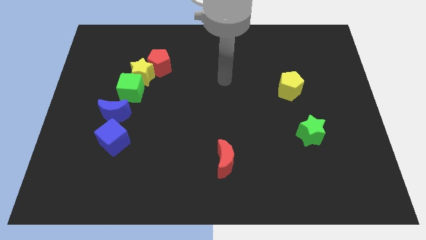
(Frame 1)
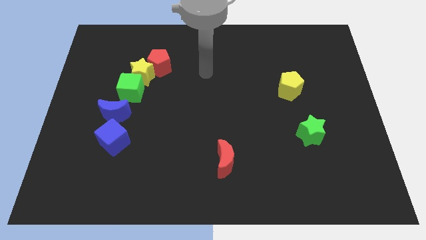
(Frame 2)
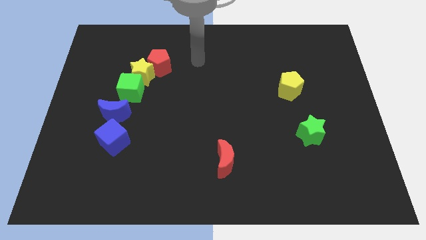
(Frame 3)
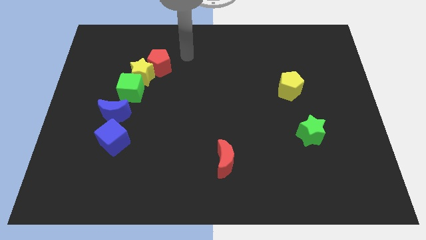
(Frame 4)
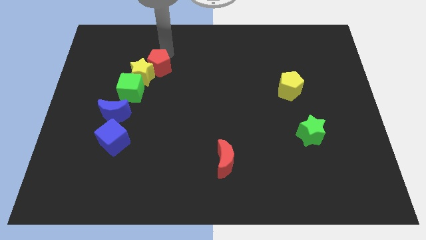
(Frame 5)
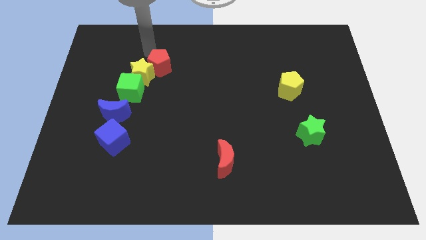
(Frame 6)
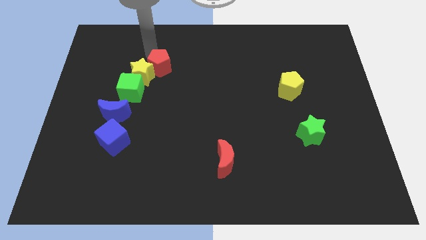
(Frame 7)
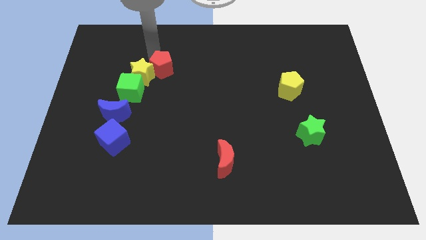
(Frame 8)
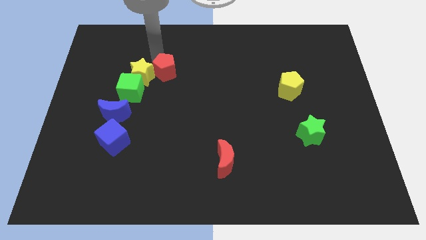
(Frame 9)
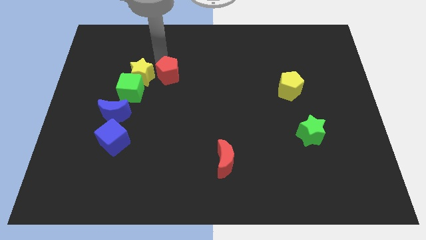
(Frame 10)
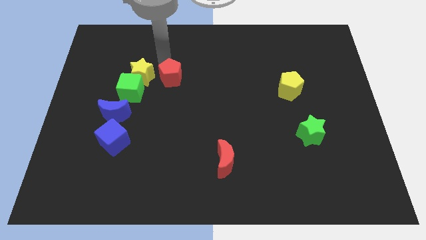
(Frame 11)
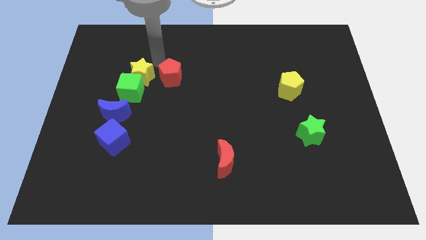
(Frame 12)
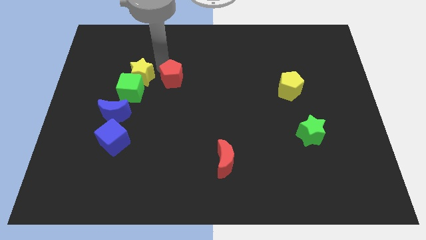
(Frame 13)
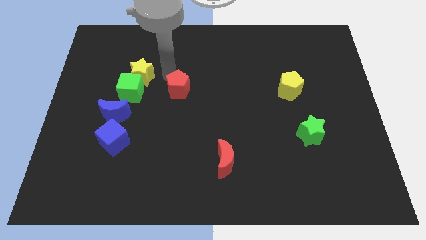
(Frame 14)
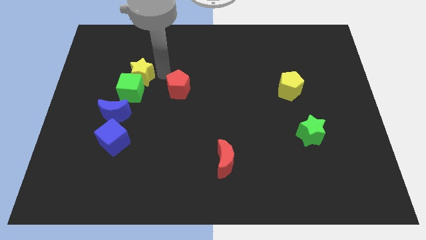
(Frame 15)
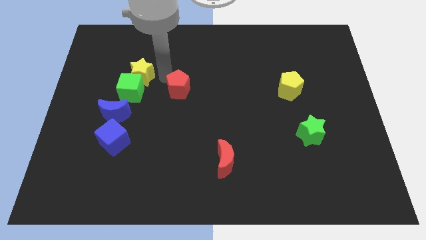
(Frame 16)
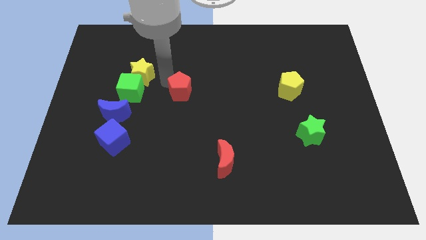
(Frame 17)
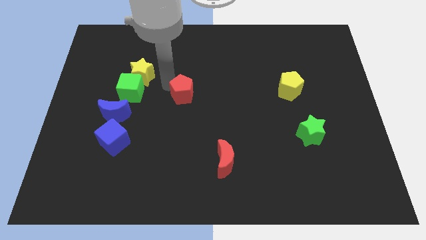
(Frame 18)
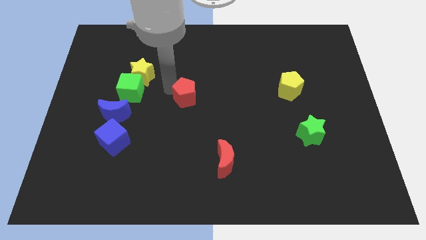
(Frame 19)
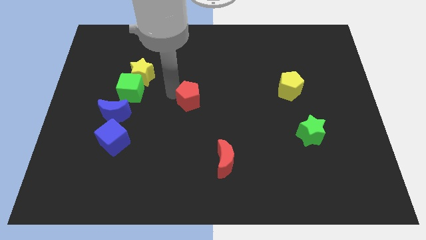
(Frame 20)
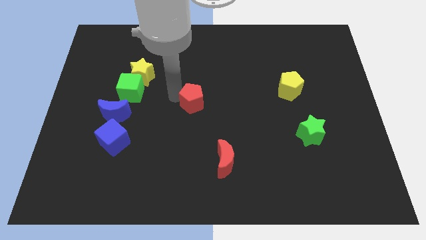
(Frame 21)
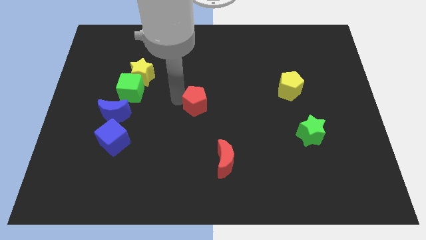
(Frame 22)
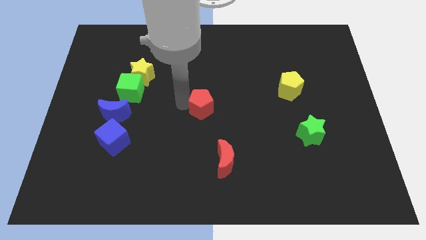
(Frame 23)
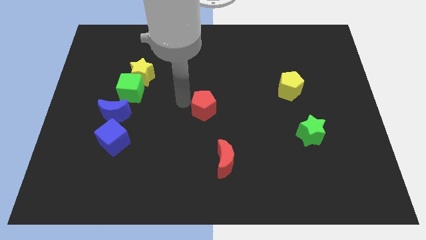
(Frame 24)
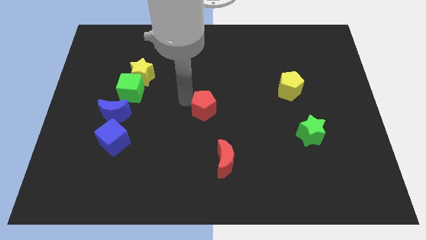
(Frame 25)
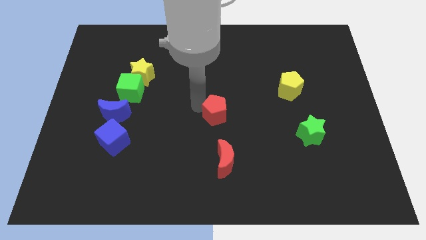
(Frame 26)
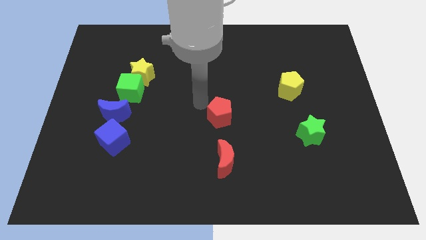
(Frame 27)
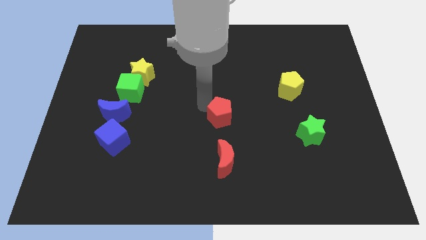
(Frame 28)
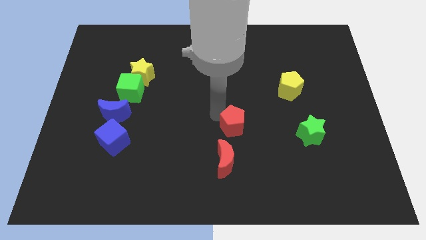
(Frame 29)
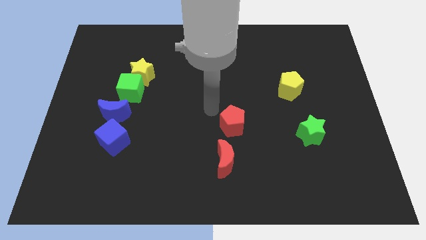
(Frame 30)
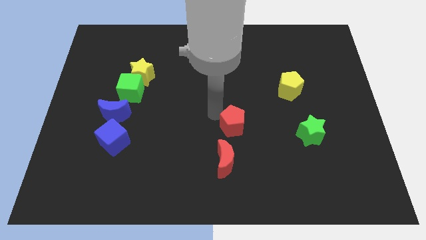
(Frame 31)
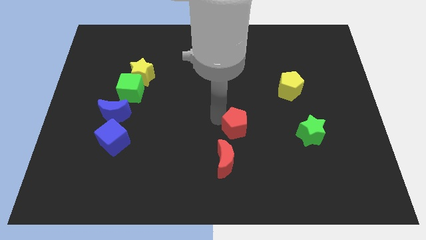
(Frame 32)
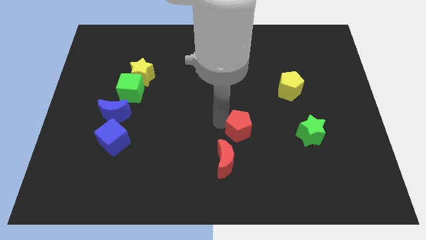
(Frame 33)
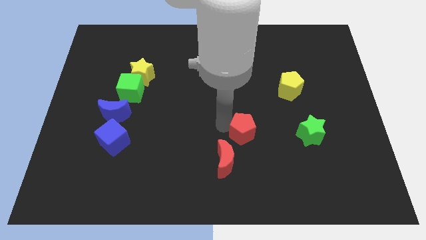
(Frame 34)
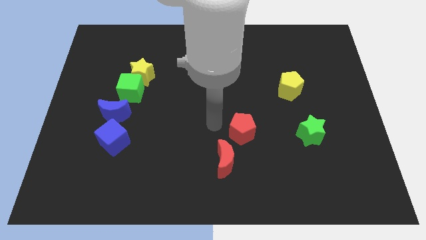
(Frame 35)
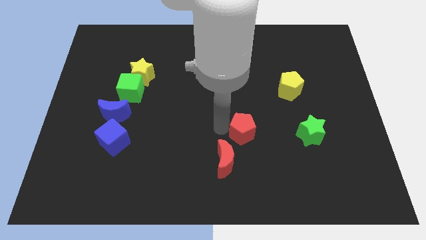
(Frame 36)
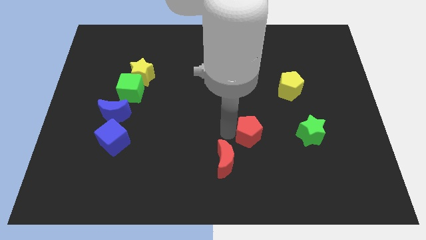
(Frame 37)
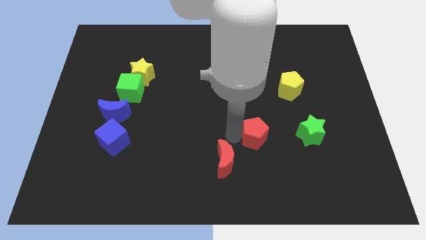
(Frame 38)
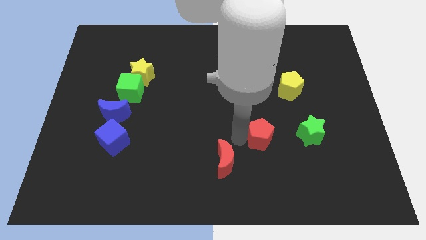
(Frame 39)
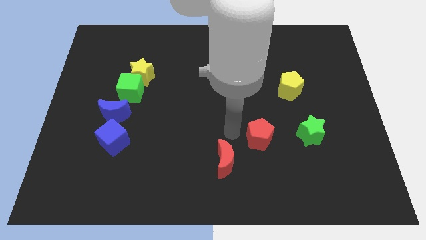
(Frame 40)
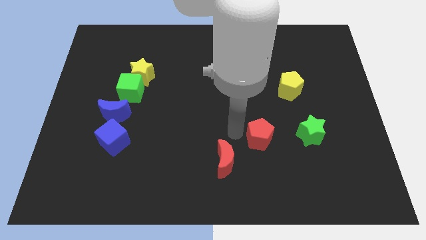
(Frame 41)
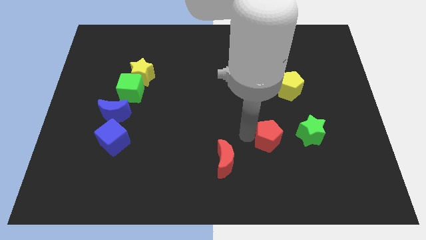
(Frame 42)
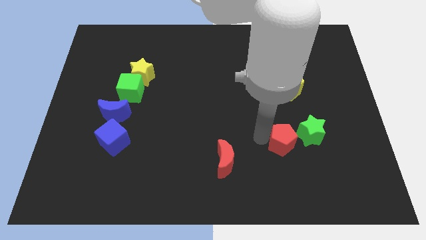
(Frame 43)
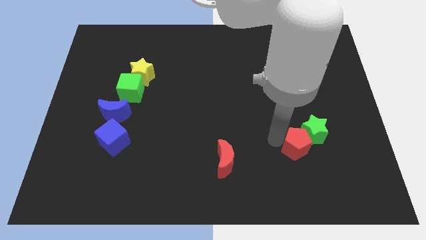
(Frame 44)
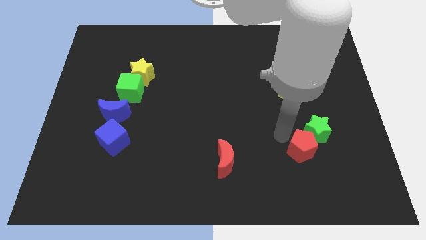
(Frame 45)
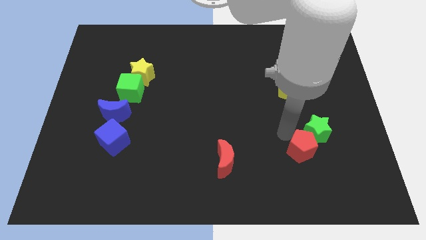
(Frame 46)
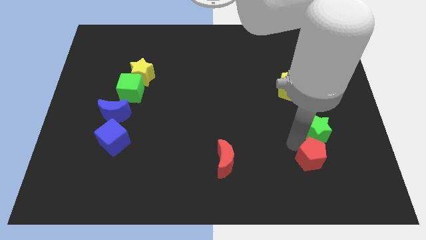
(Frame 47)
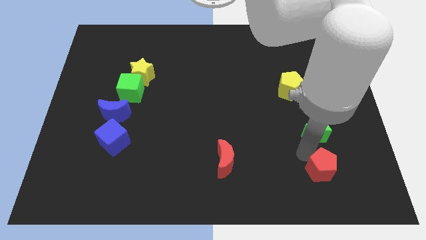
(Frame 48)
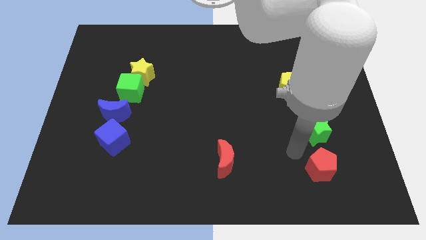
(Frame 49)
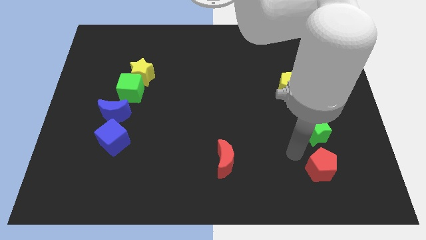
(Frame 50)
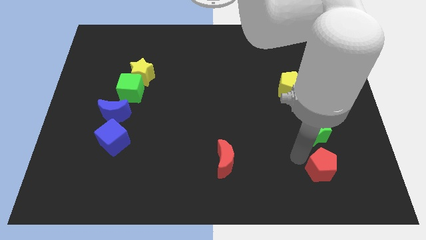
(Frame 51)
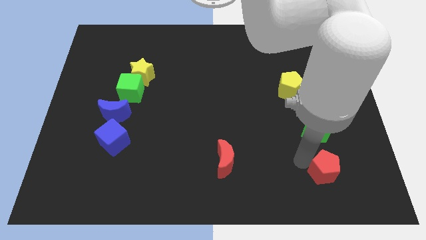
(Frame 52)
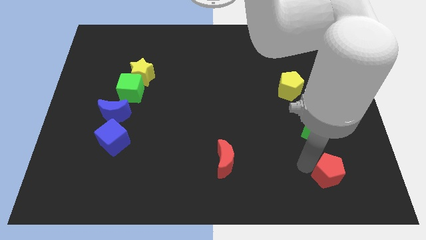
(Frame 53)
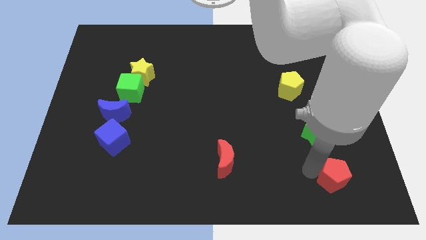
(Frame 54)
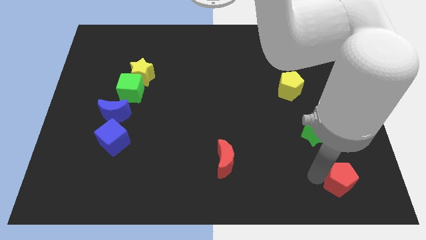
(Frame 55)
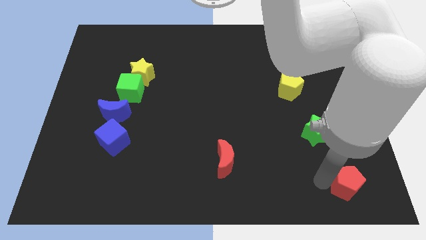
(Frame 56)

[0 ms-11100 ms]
push the red pentagon to the bottom right of the board

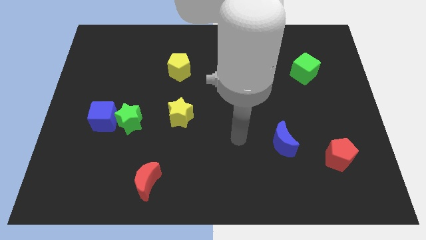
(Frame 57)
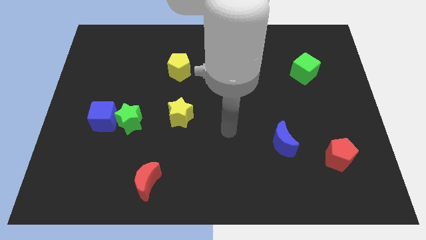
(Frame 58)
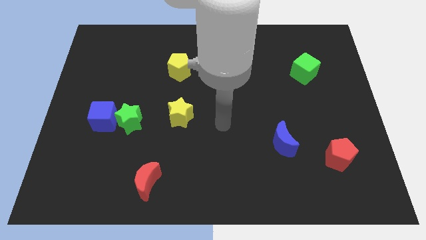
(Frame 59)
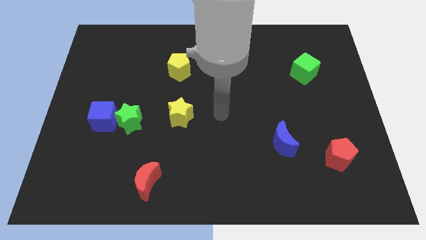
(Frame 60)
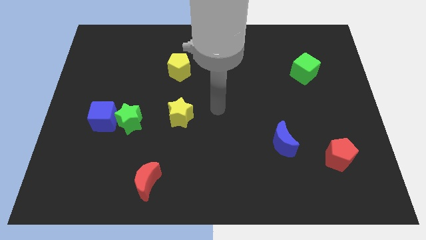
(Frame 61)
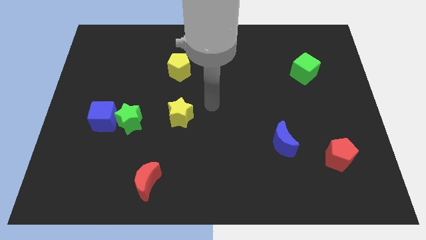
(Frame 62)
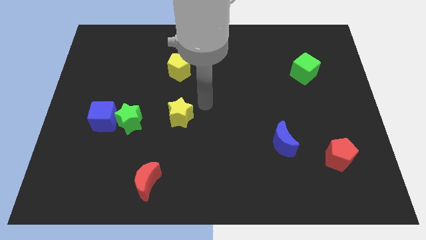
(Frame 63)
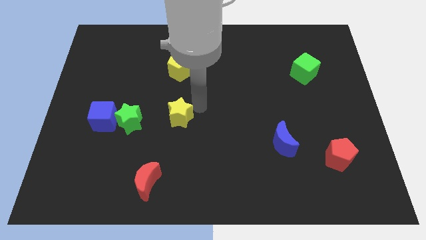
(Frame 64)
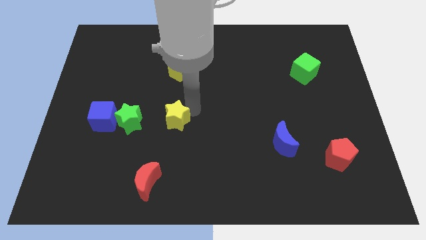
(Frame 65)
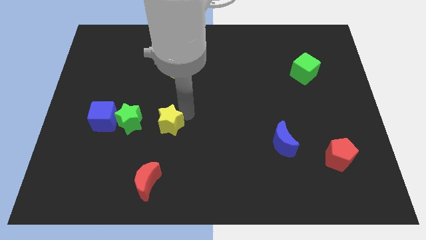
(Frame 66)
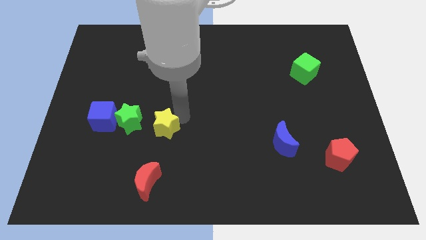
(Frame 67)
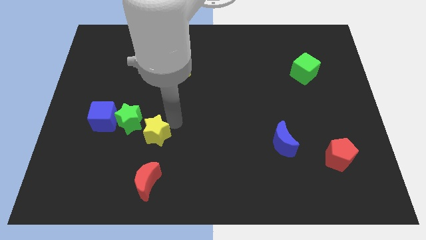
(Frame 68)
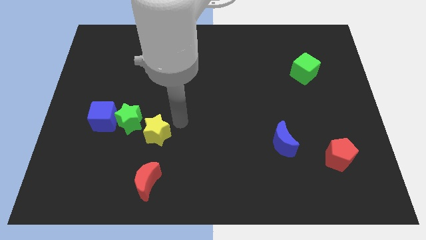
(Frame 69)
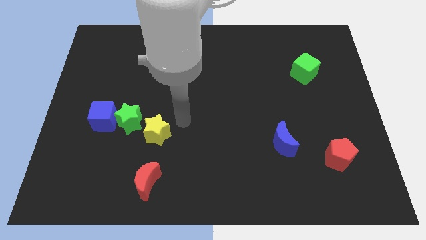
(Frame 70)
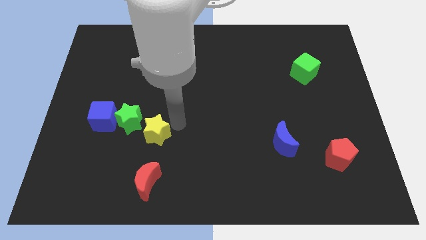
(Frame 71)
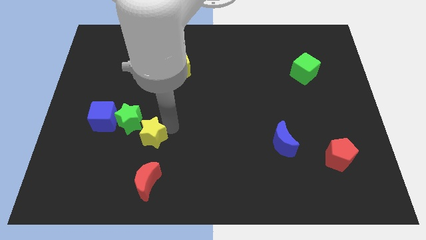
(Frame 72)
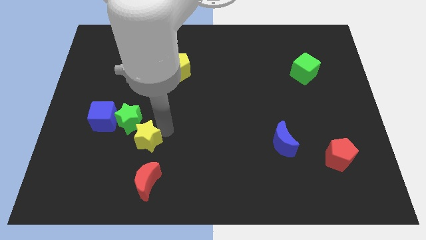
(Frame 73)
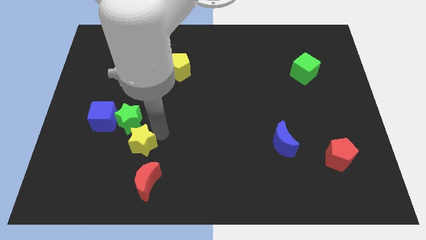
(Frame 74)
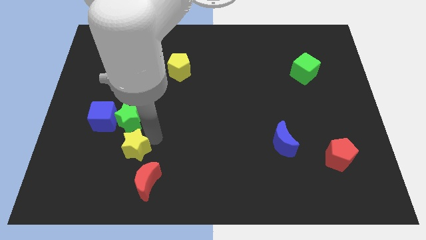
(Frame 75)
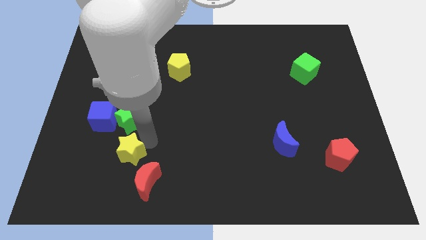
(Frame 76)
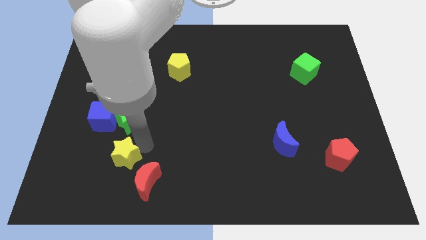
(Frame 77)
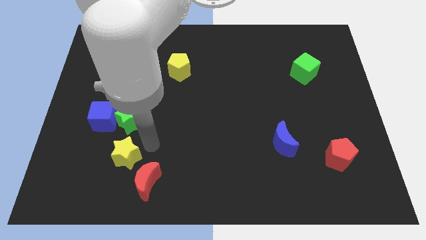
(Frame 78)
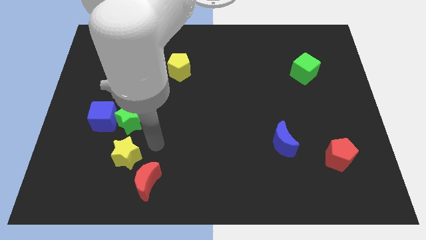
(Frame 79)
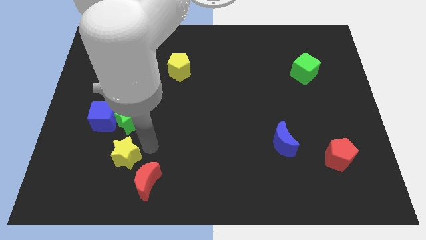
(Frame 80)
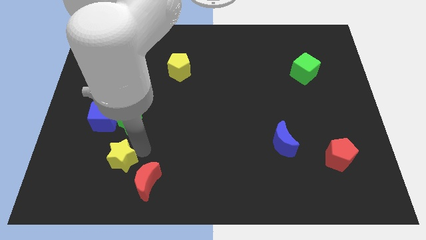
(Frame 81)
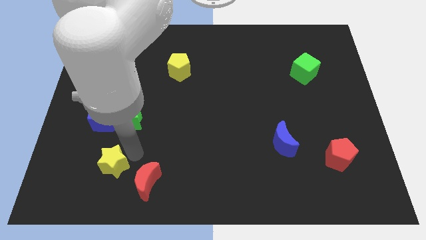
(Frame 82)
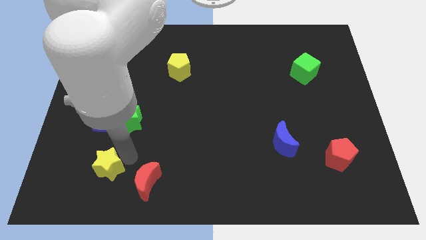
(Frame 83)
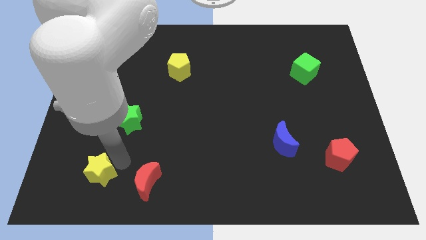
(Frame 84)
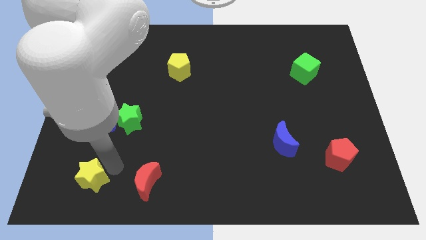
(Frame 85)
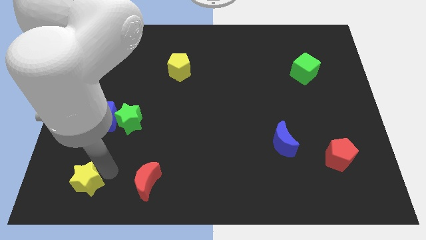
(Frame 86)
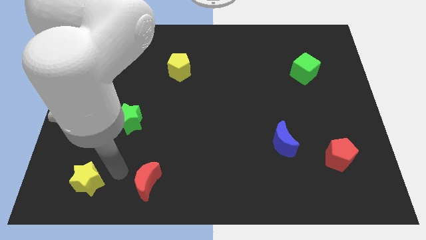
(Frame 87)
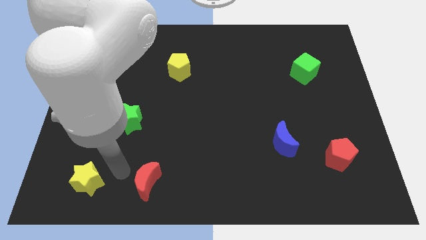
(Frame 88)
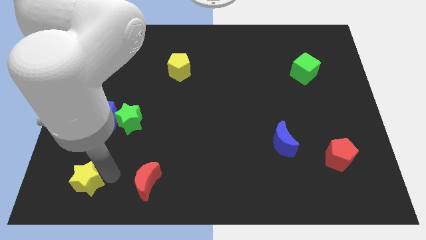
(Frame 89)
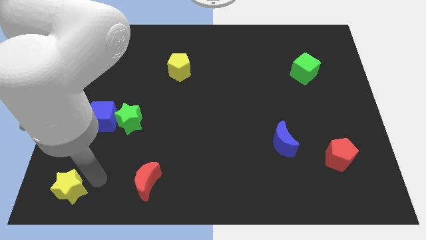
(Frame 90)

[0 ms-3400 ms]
move the yellow star to the bottom left of the board
